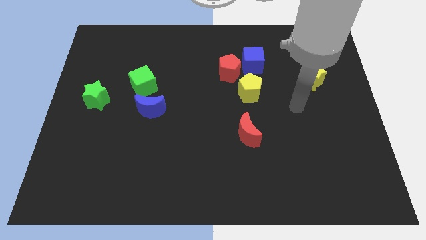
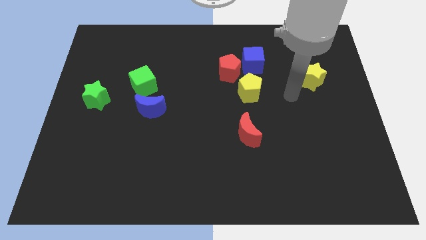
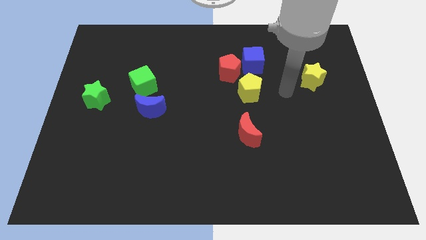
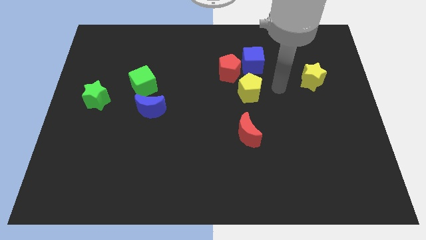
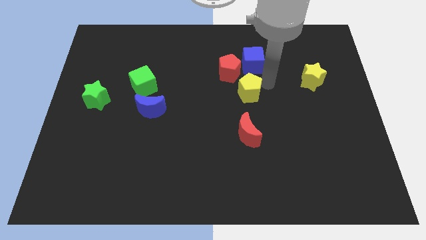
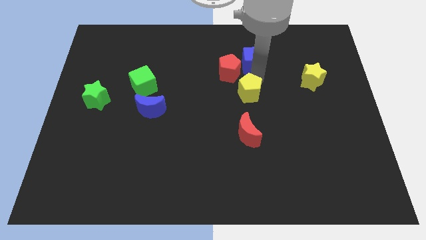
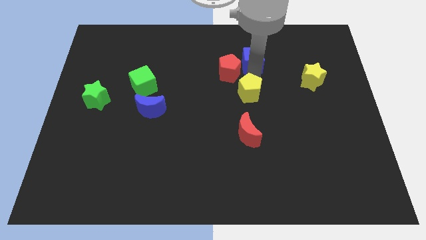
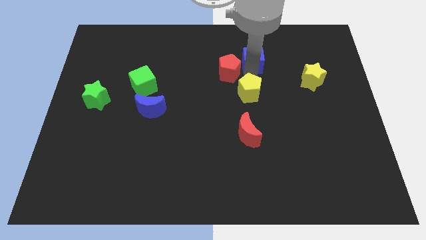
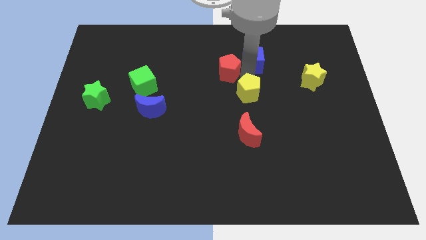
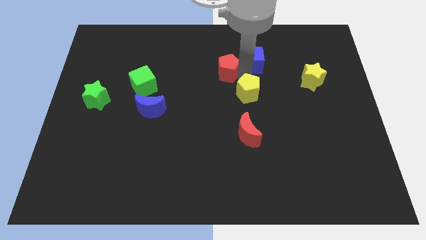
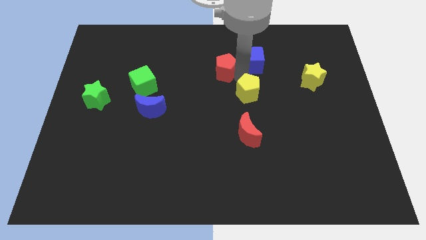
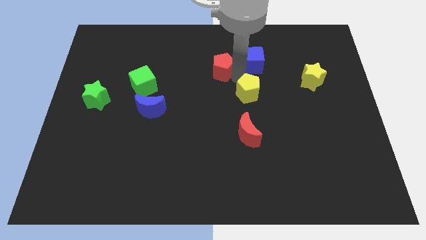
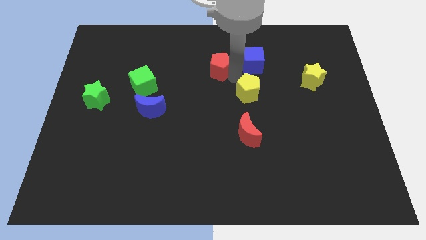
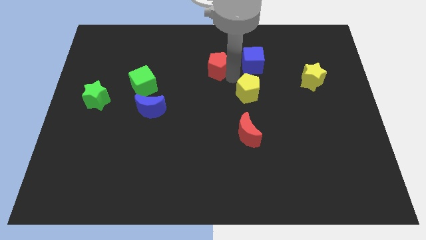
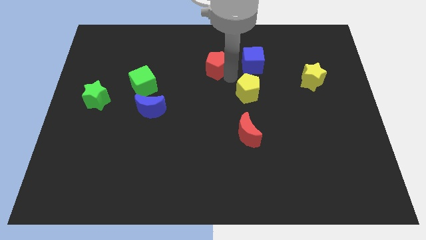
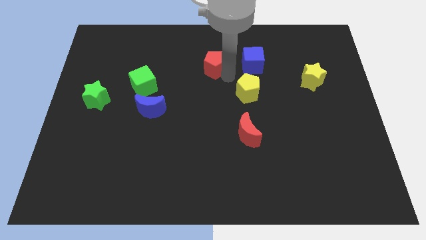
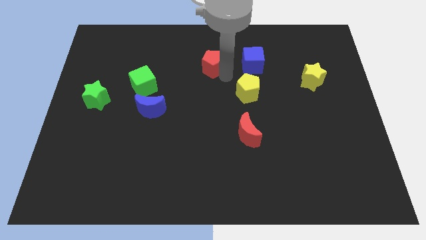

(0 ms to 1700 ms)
move the red pentagon away from the blue cube and yellow pentagon

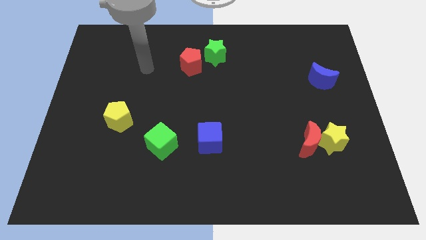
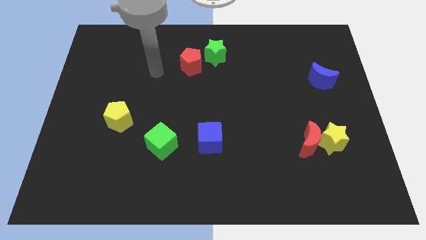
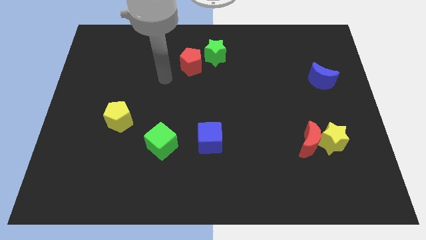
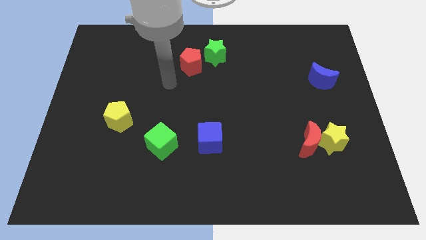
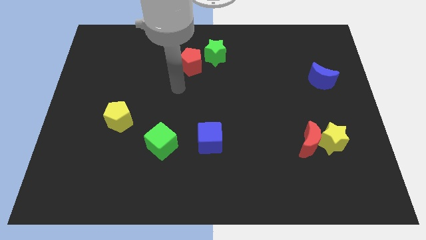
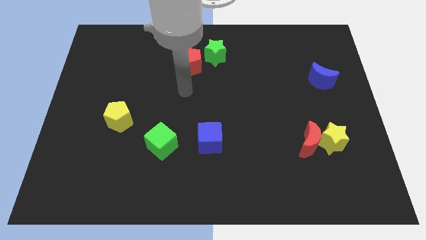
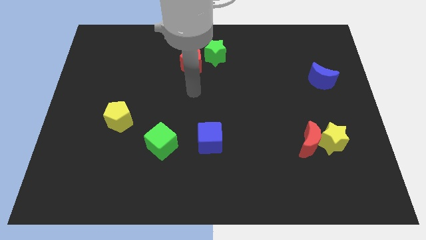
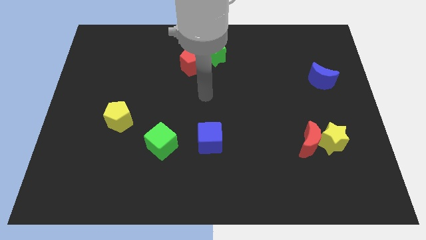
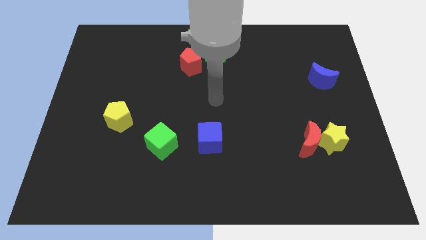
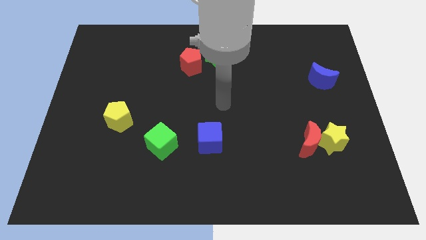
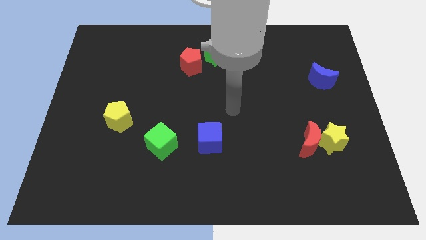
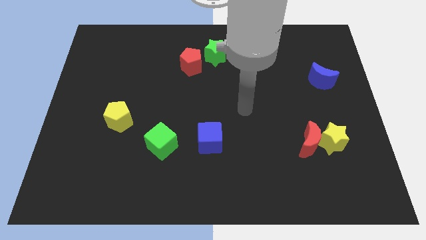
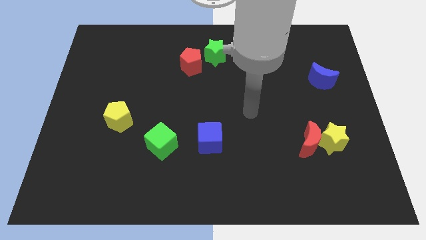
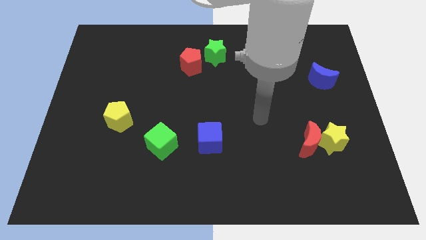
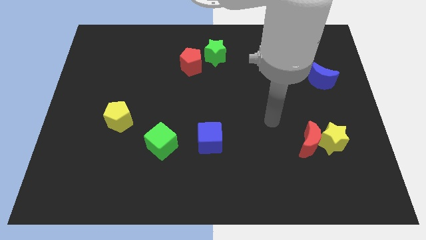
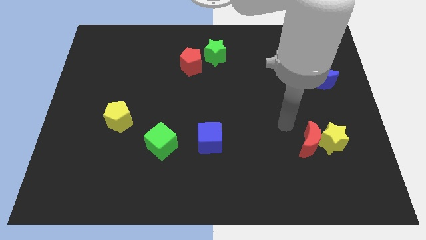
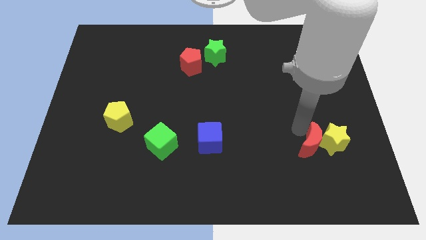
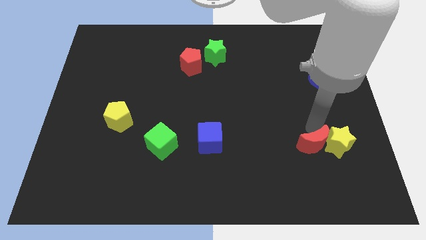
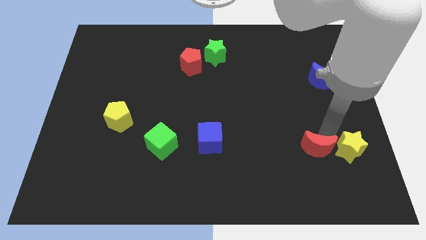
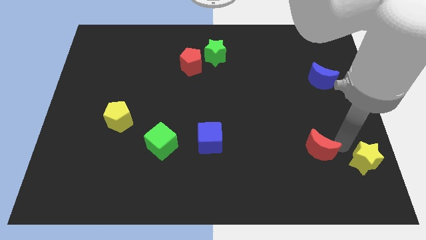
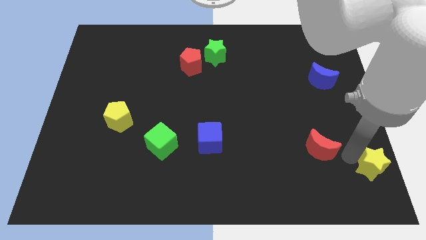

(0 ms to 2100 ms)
separate the red moon from the yellow star

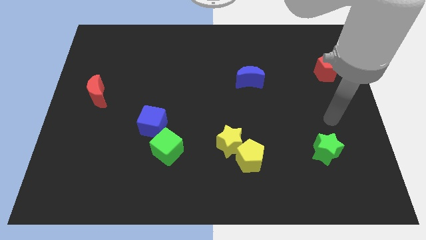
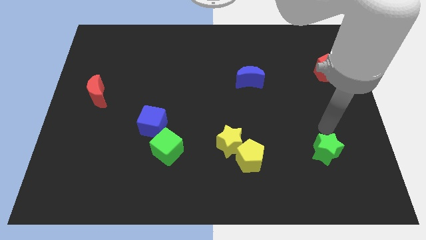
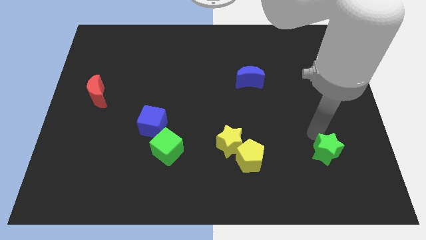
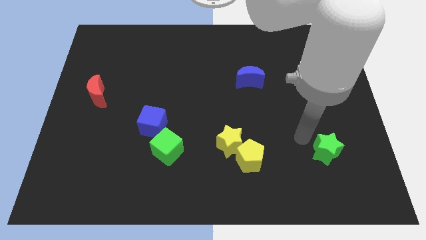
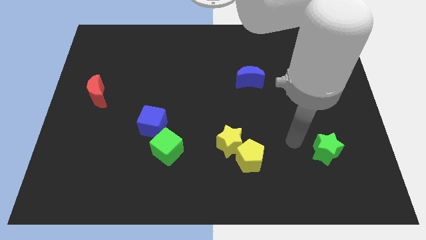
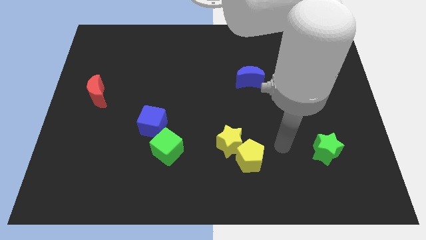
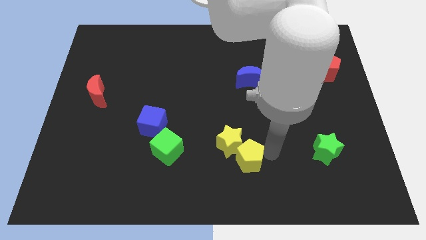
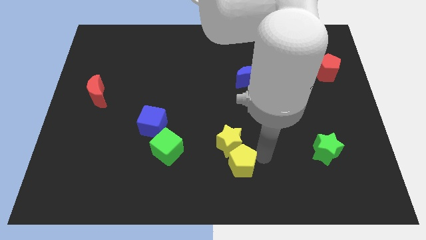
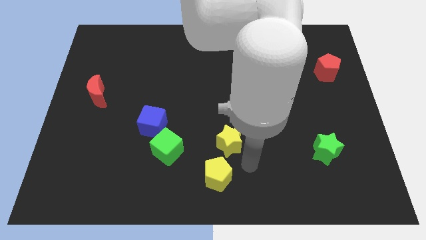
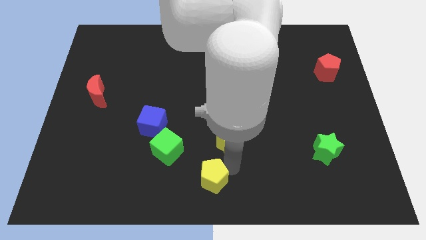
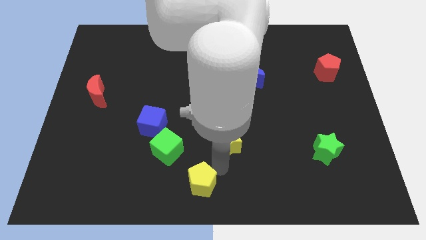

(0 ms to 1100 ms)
pull the yellow star apart from the yellow pentagon

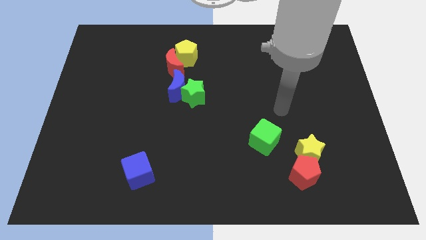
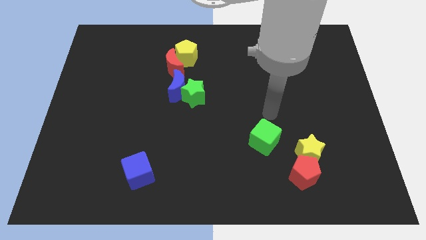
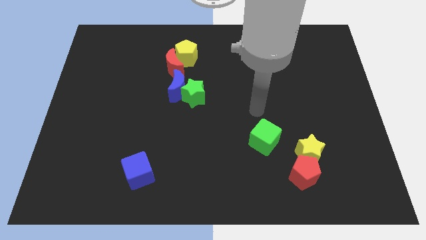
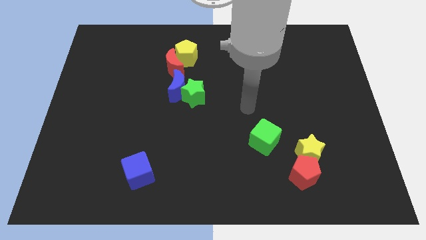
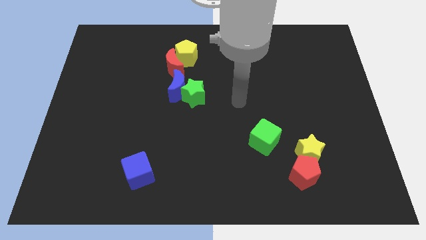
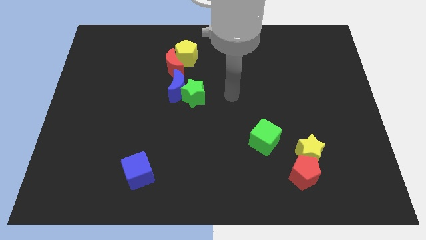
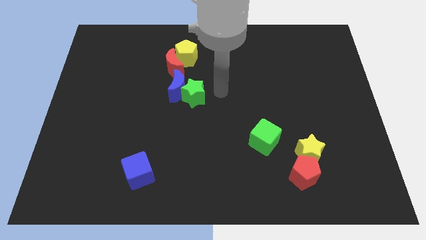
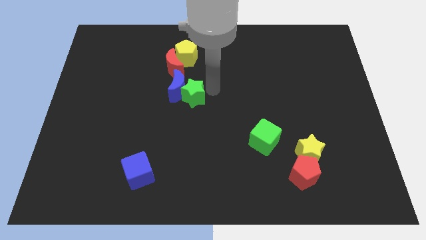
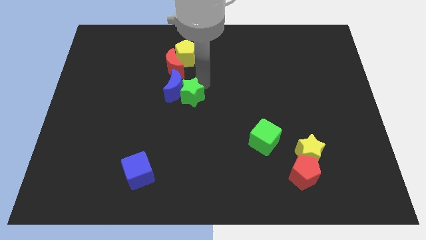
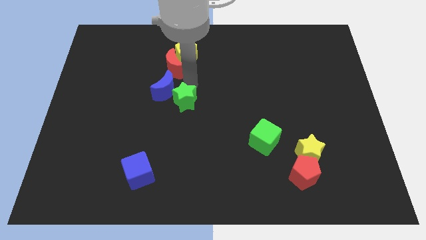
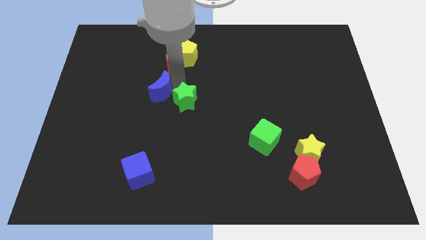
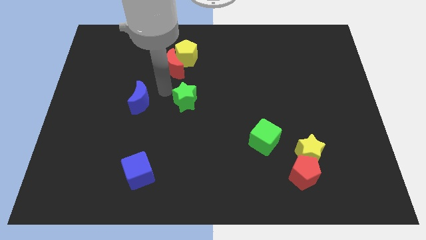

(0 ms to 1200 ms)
separate the green star from the blue moon

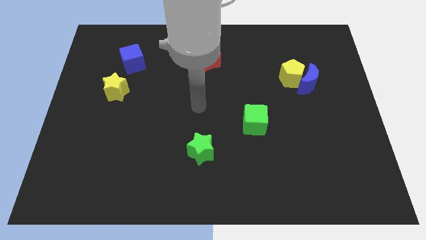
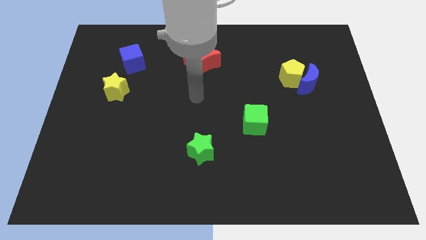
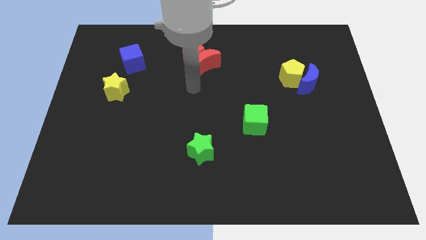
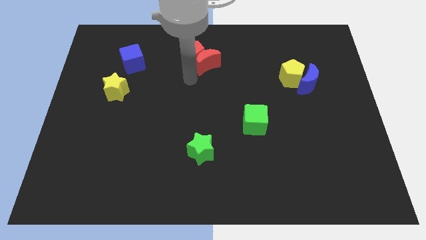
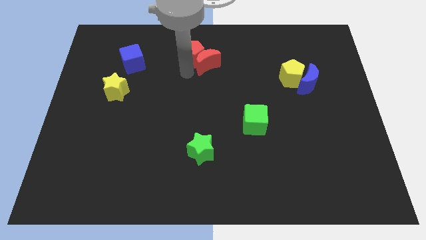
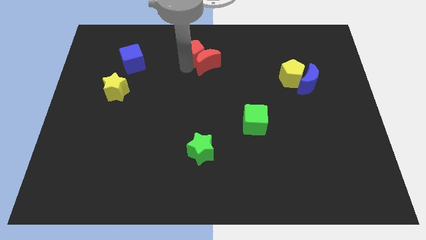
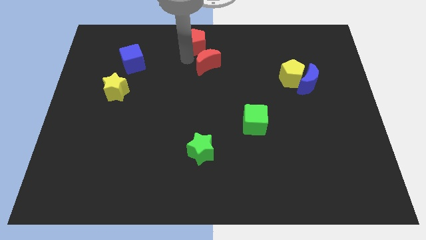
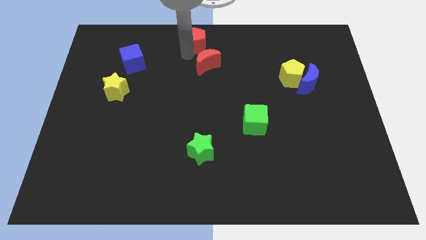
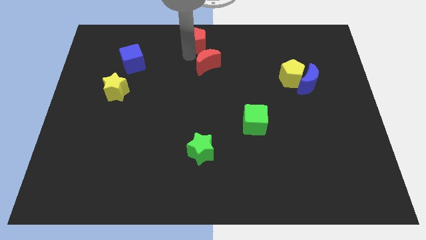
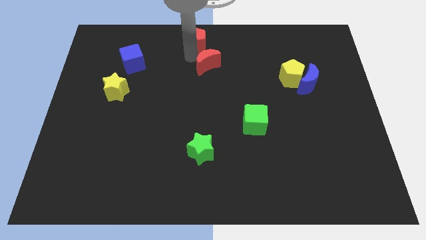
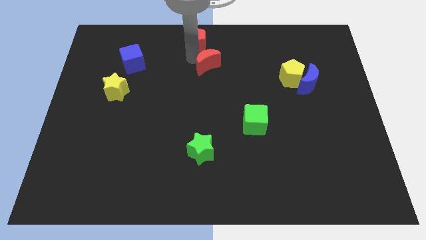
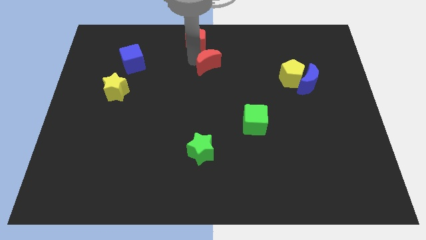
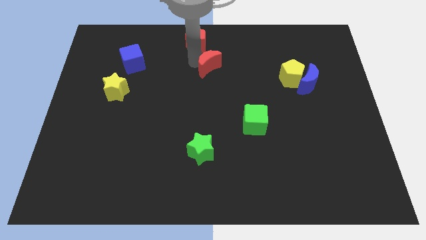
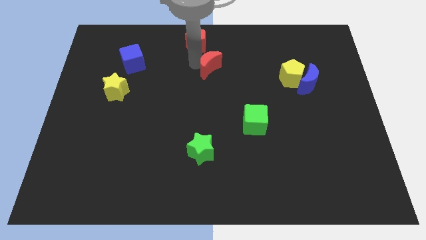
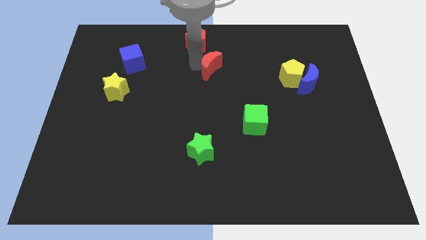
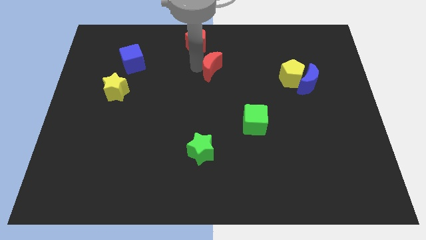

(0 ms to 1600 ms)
separate the red moon from the red pentagon

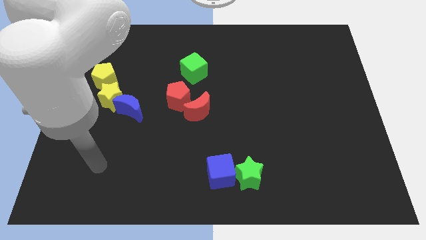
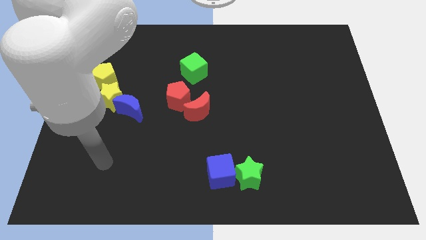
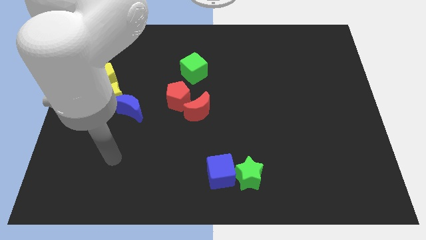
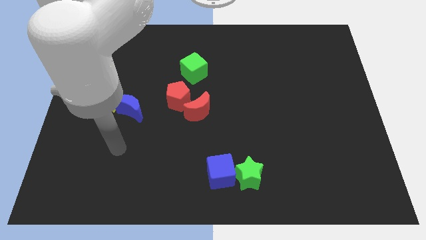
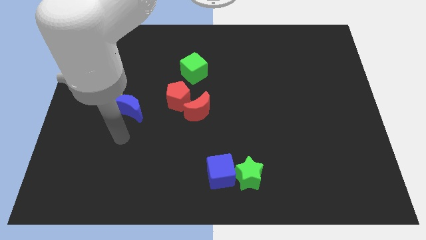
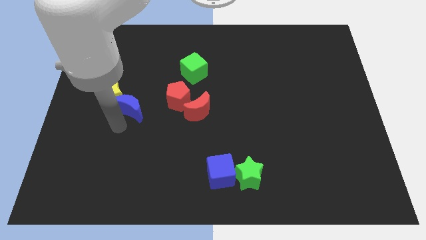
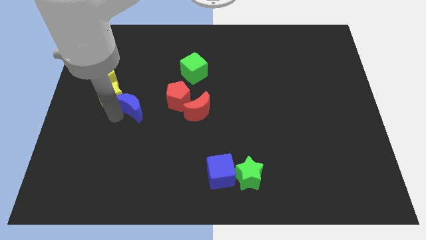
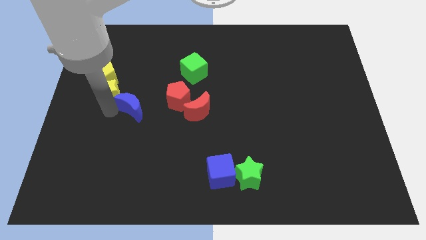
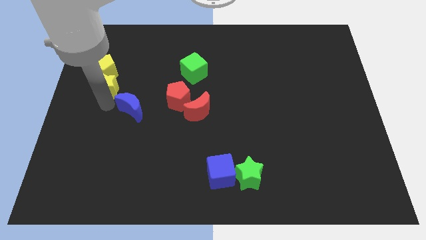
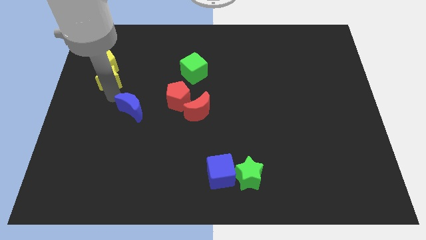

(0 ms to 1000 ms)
move the blue moon away from the yellow star

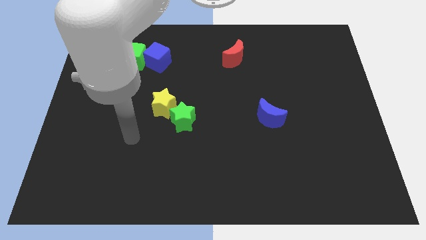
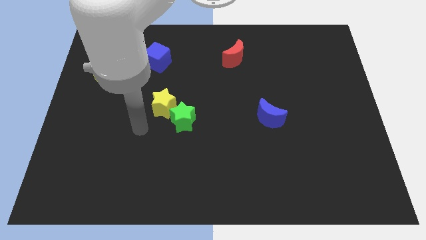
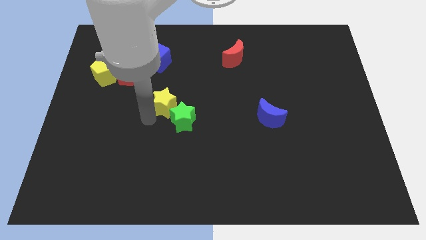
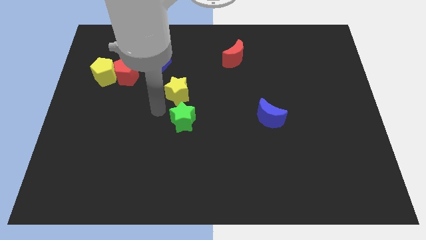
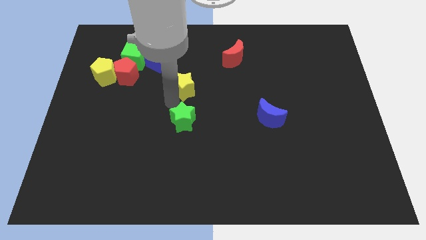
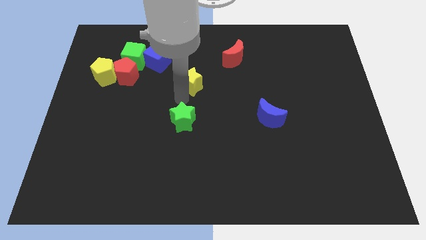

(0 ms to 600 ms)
move the green star away from the yellow star

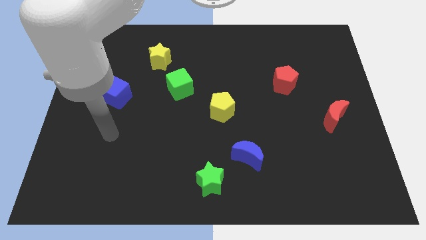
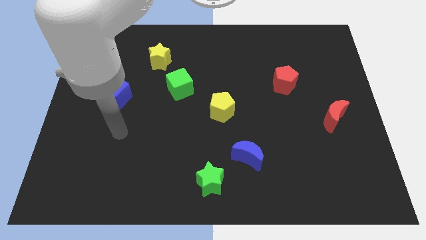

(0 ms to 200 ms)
move the blue moon away from the green star

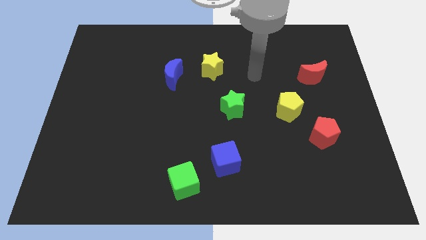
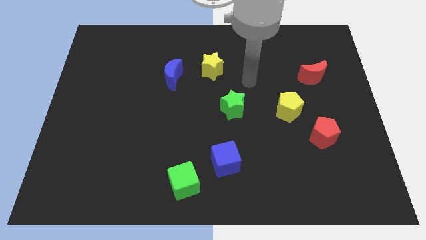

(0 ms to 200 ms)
move the blue cube away from the green cube
